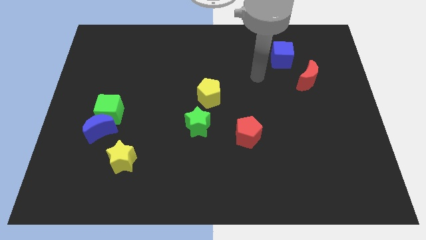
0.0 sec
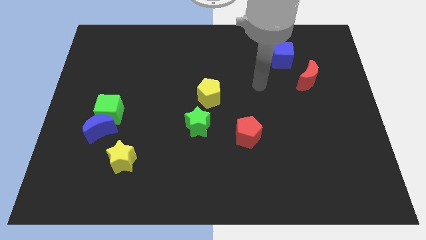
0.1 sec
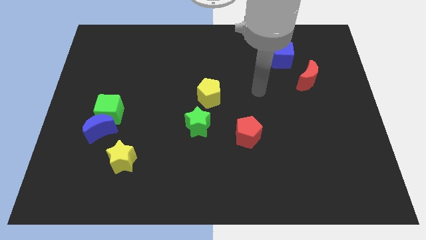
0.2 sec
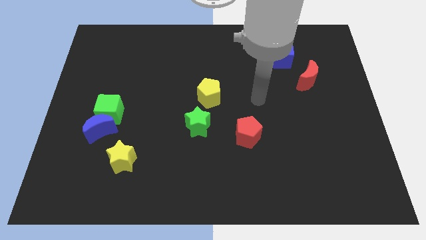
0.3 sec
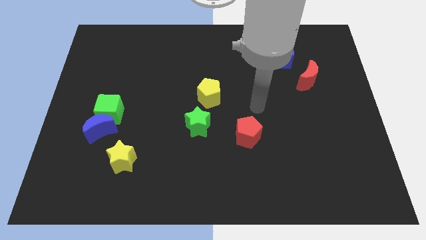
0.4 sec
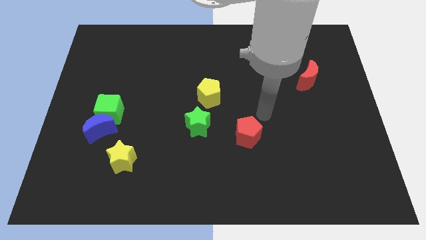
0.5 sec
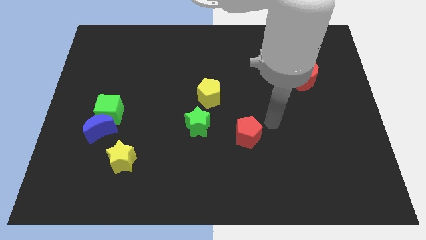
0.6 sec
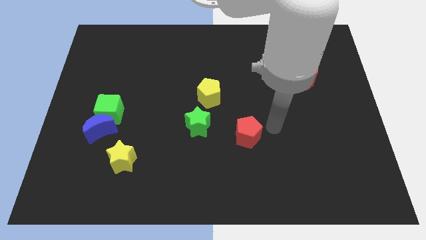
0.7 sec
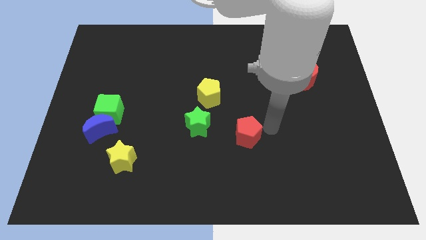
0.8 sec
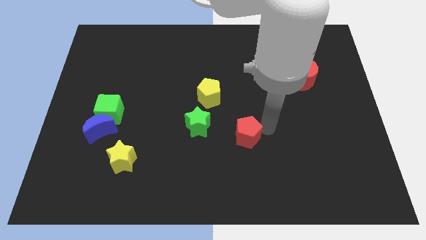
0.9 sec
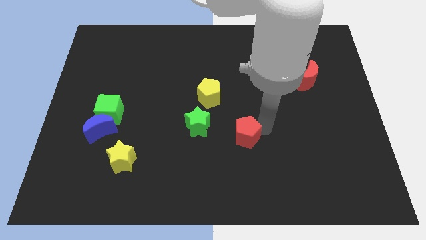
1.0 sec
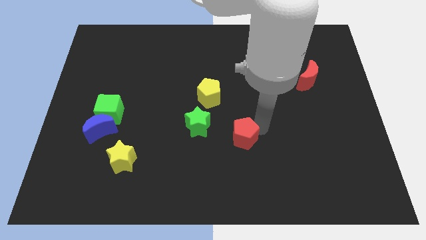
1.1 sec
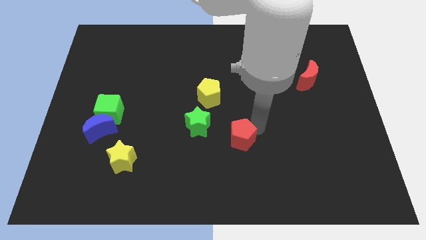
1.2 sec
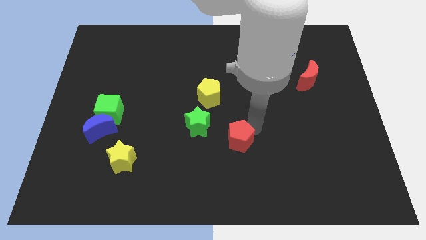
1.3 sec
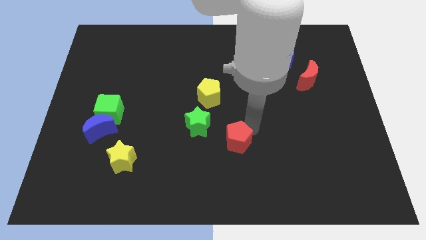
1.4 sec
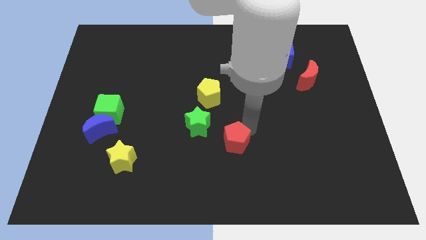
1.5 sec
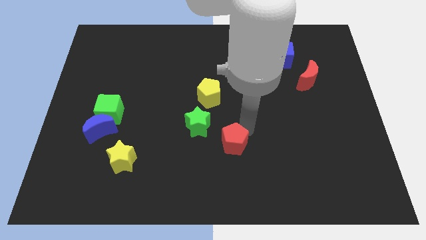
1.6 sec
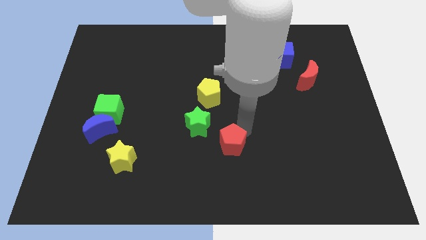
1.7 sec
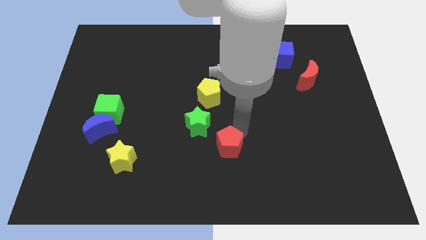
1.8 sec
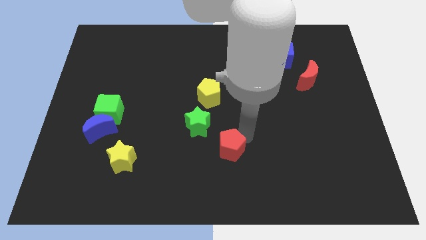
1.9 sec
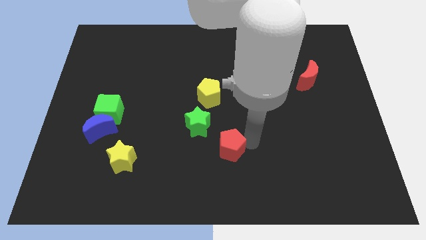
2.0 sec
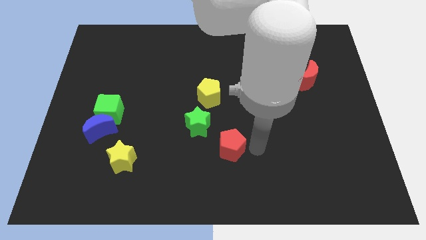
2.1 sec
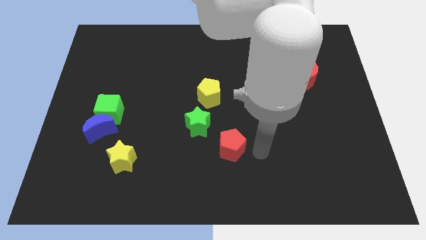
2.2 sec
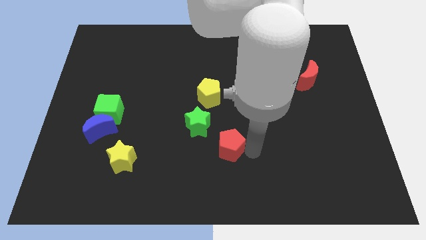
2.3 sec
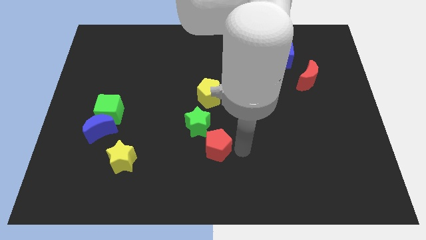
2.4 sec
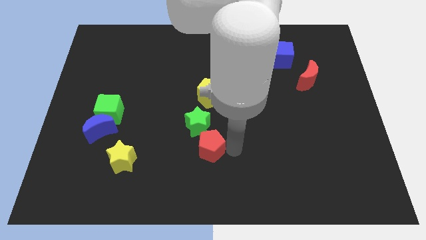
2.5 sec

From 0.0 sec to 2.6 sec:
move the red pentagon left a bit

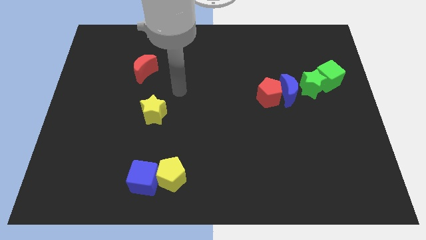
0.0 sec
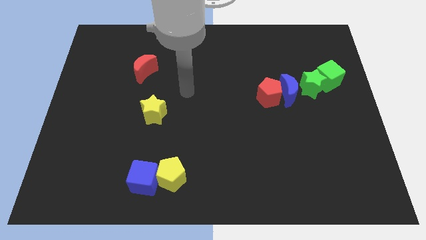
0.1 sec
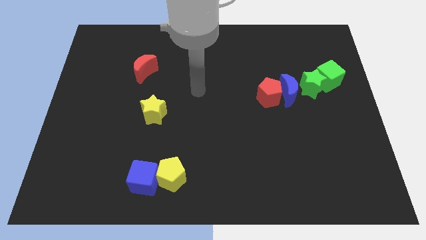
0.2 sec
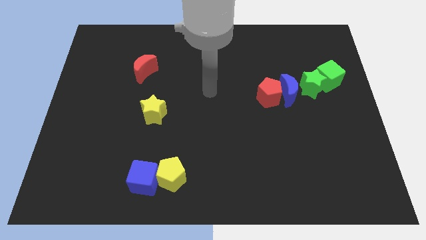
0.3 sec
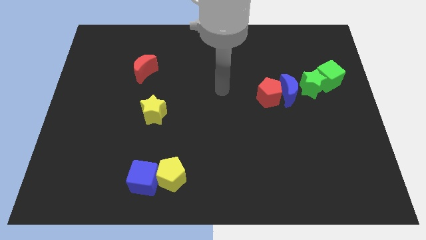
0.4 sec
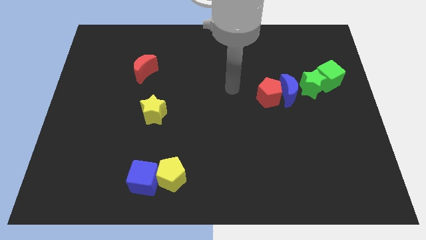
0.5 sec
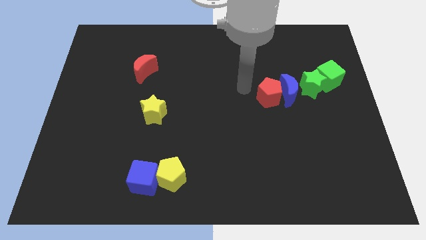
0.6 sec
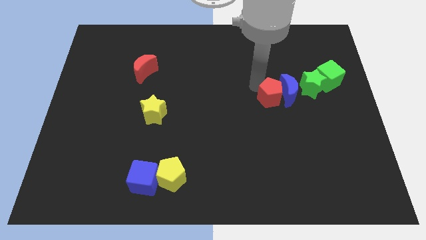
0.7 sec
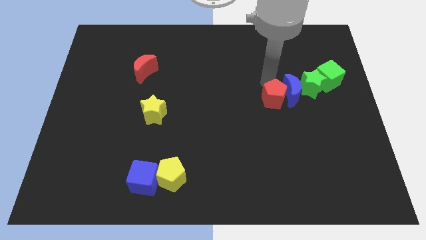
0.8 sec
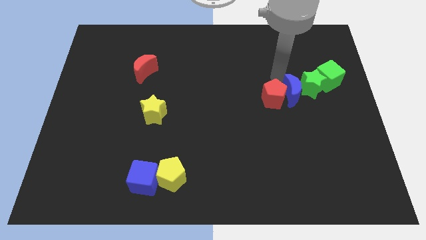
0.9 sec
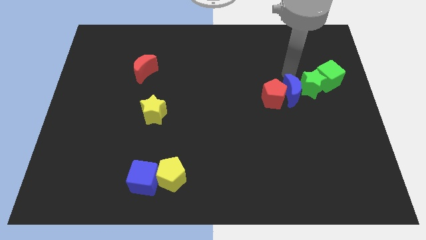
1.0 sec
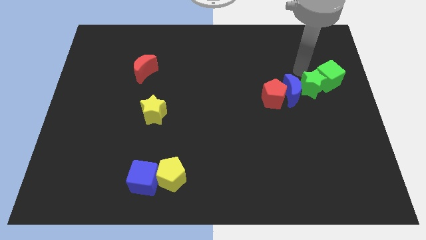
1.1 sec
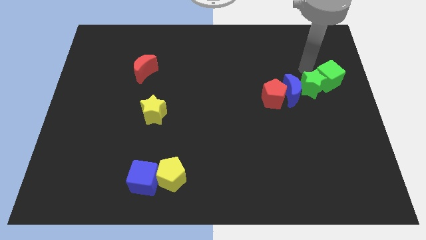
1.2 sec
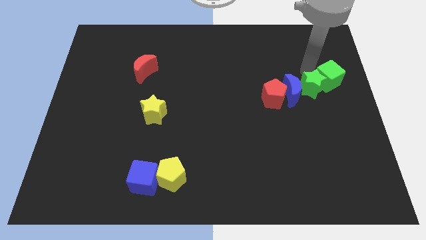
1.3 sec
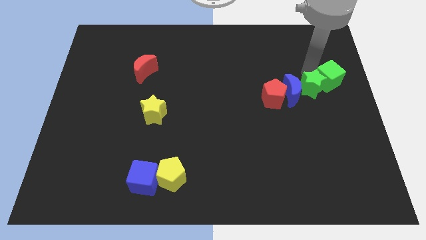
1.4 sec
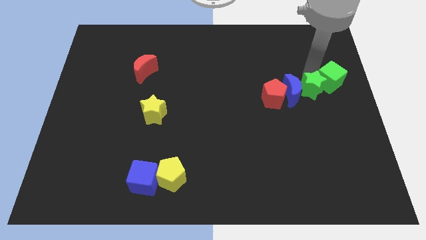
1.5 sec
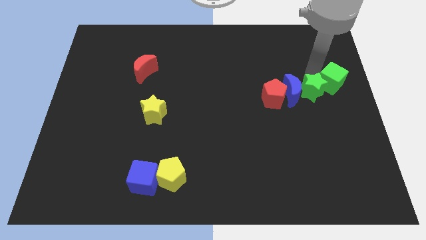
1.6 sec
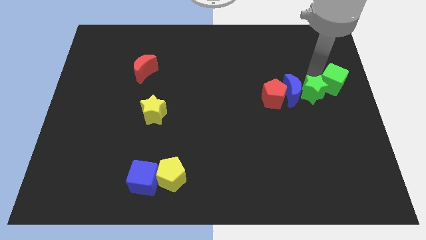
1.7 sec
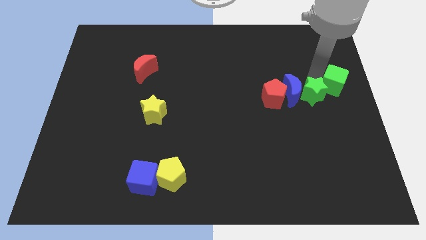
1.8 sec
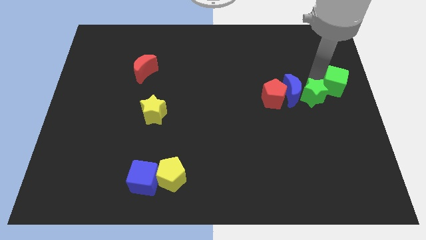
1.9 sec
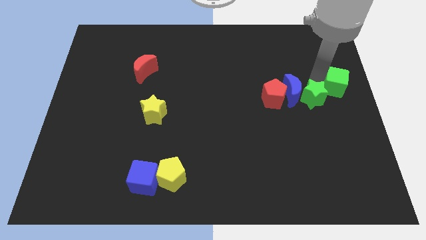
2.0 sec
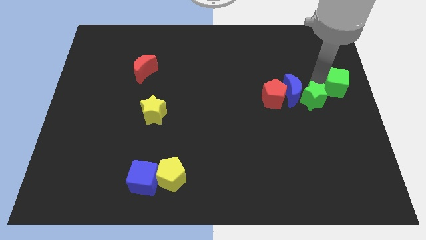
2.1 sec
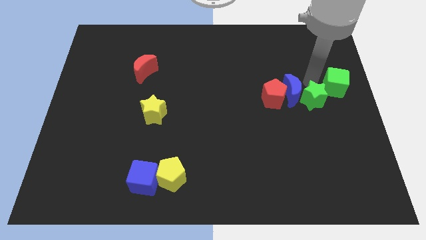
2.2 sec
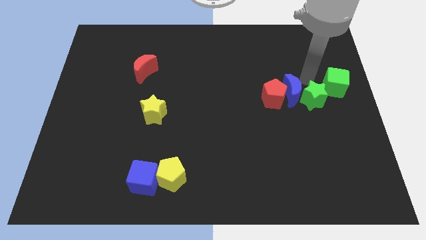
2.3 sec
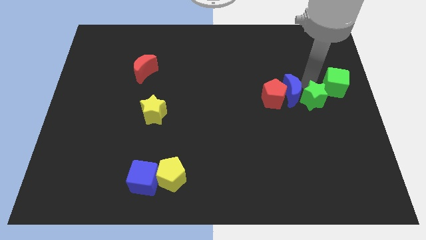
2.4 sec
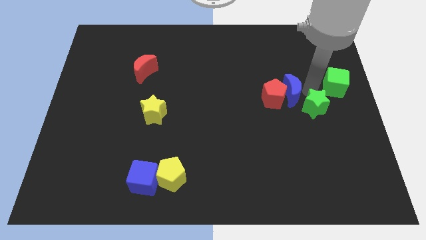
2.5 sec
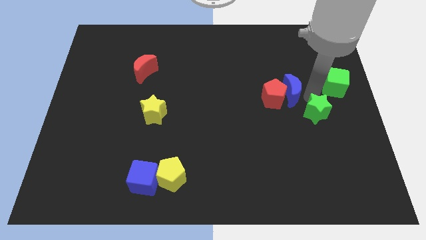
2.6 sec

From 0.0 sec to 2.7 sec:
push the green star a little downwards

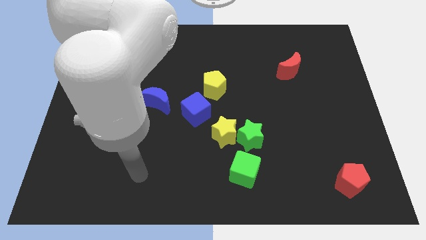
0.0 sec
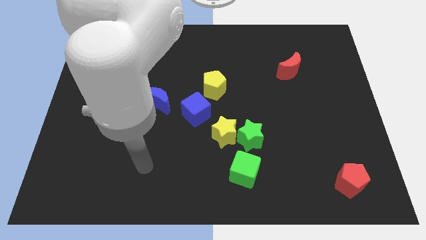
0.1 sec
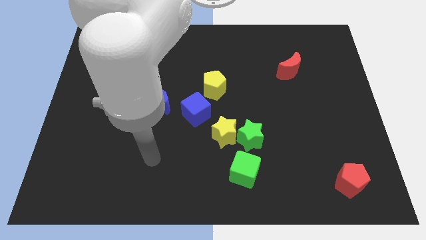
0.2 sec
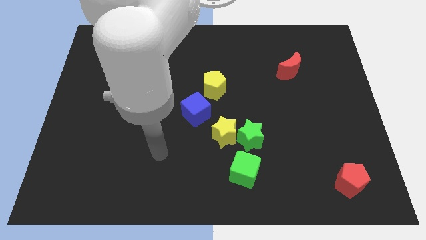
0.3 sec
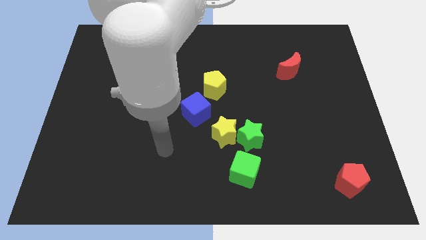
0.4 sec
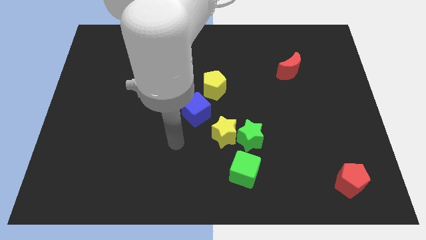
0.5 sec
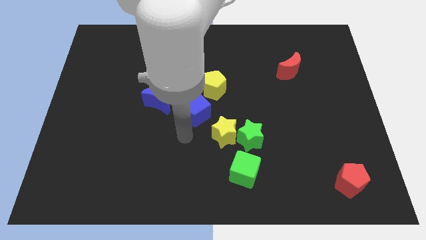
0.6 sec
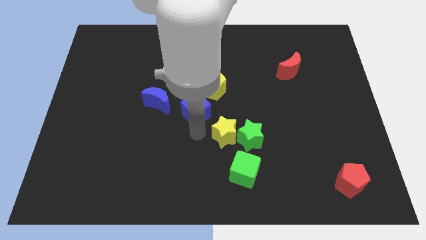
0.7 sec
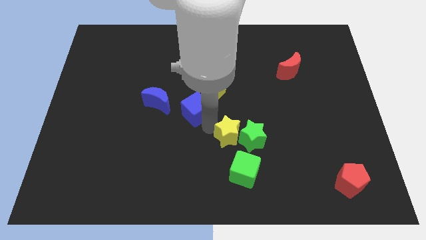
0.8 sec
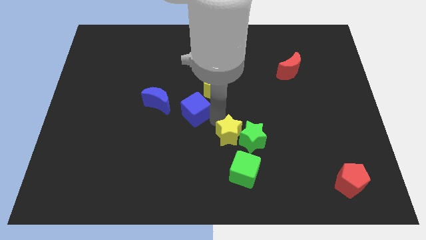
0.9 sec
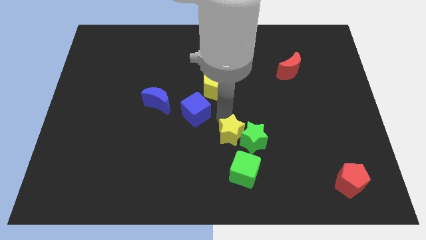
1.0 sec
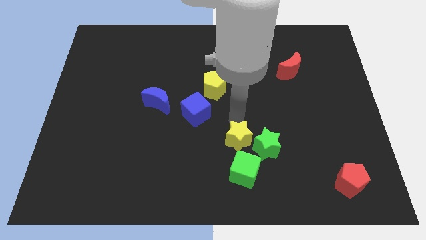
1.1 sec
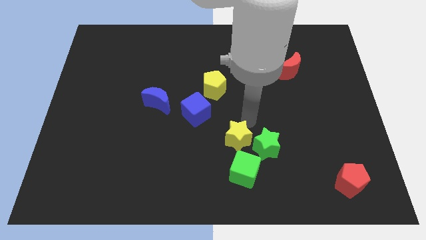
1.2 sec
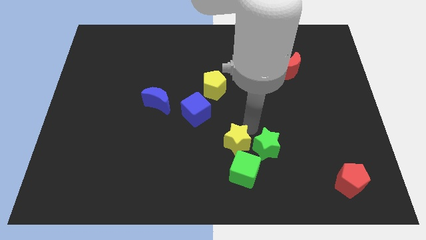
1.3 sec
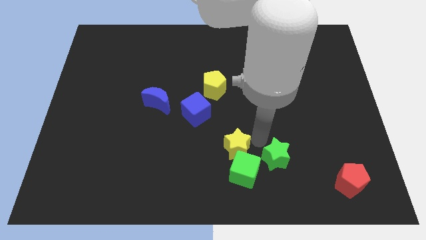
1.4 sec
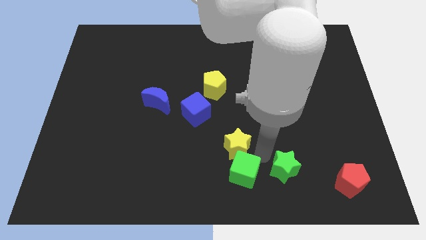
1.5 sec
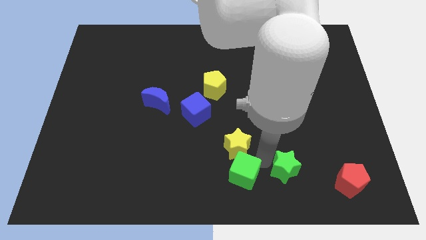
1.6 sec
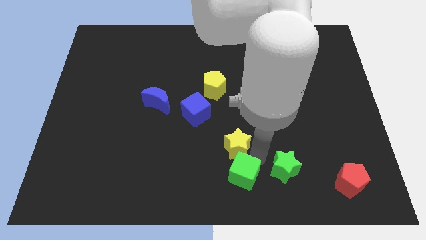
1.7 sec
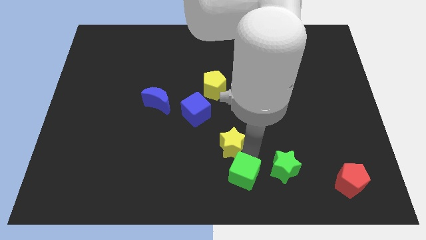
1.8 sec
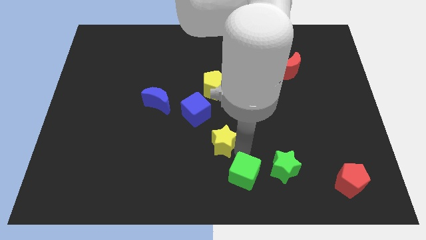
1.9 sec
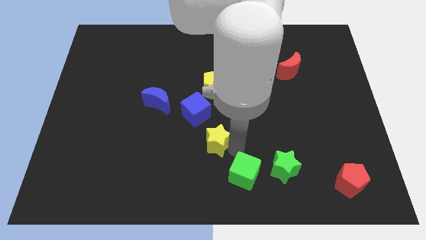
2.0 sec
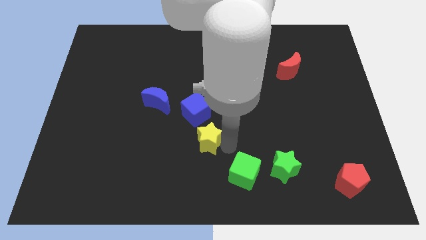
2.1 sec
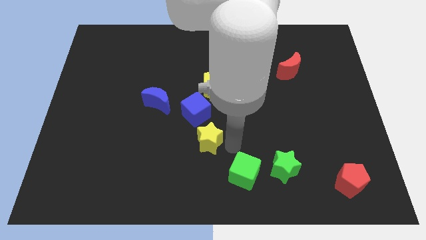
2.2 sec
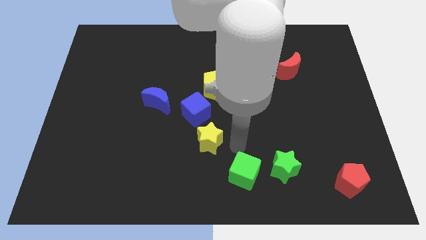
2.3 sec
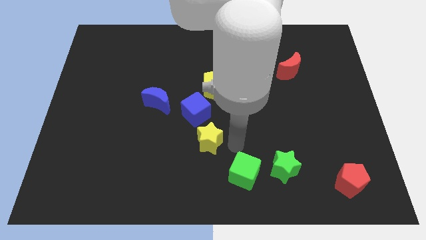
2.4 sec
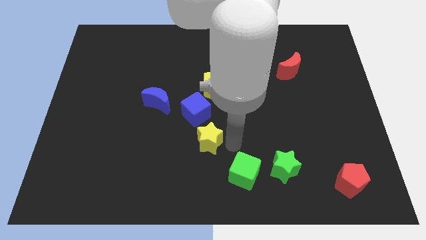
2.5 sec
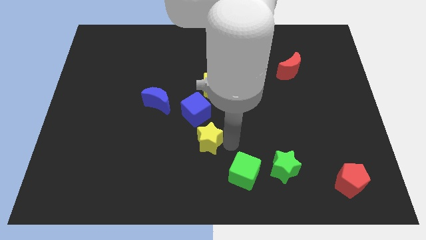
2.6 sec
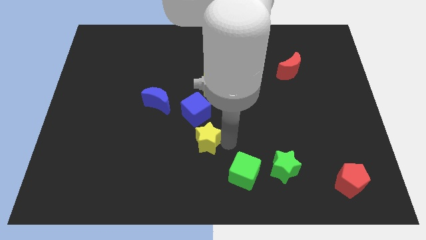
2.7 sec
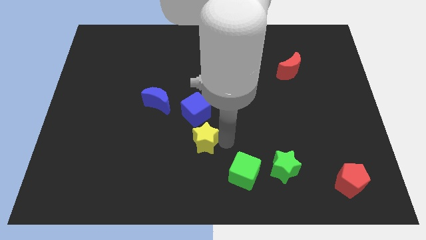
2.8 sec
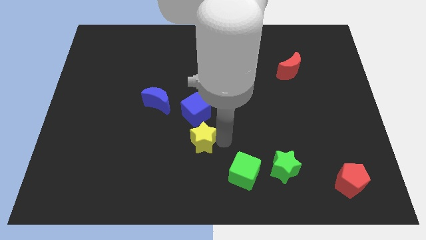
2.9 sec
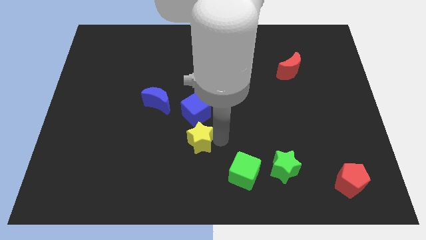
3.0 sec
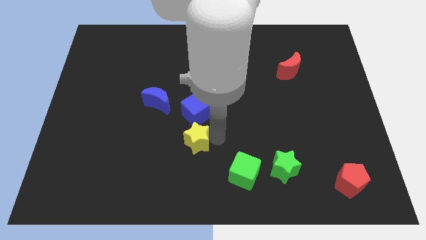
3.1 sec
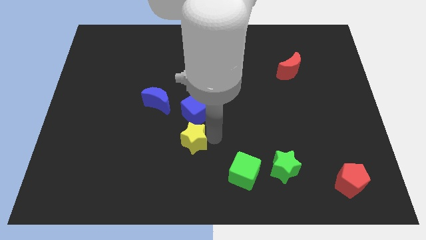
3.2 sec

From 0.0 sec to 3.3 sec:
slightly slide the yellow star to the left
